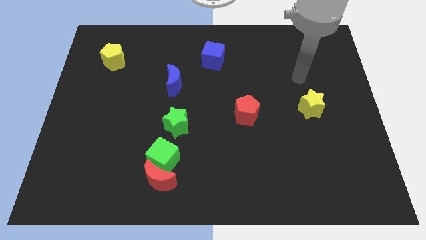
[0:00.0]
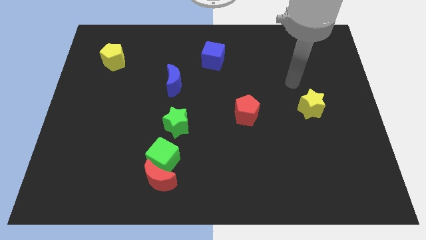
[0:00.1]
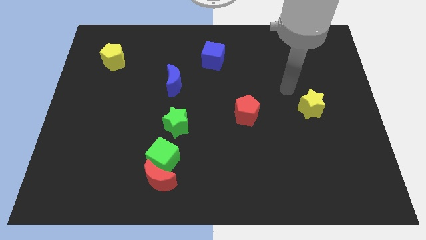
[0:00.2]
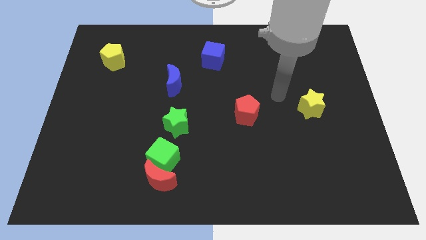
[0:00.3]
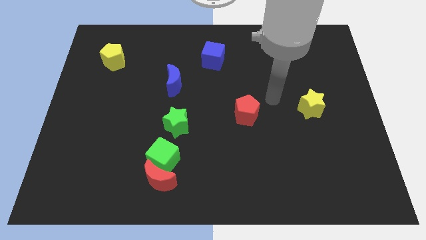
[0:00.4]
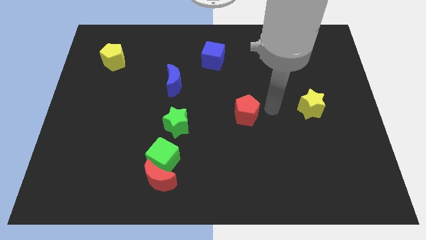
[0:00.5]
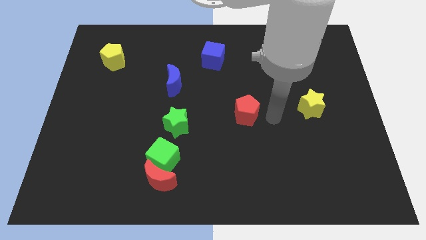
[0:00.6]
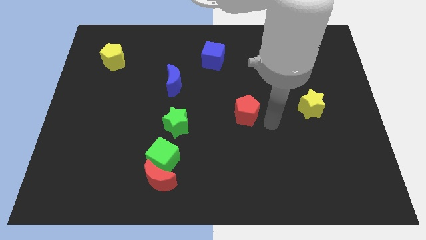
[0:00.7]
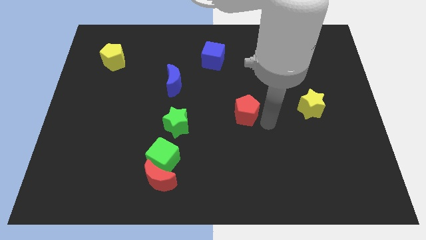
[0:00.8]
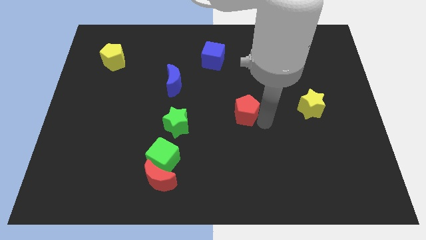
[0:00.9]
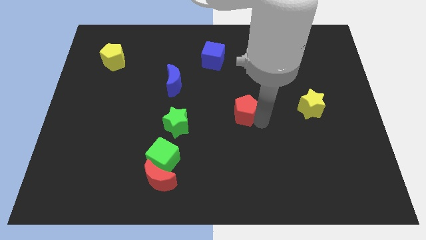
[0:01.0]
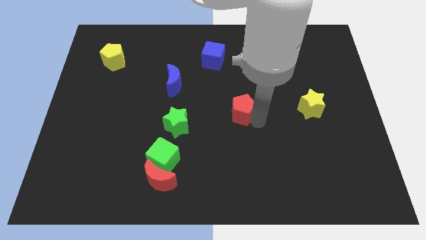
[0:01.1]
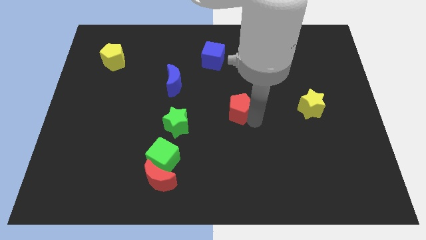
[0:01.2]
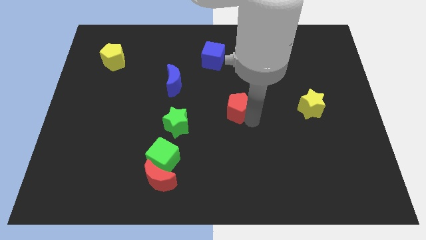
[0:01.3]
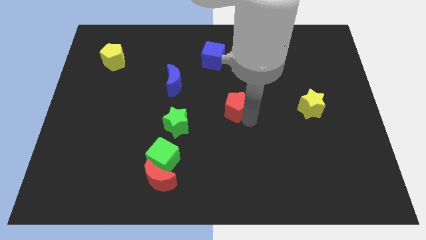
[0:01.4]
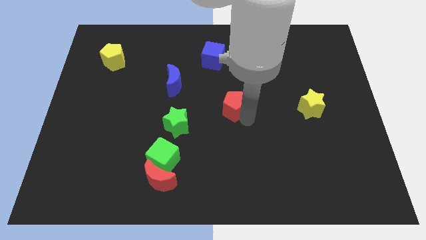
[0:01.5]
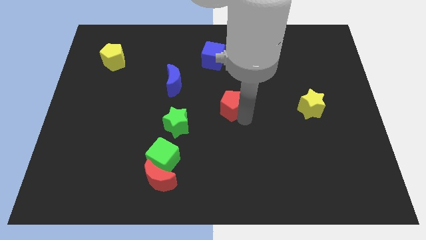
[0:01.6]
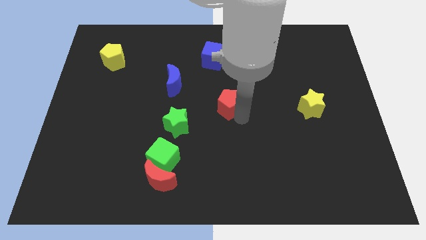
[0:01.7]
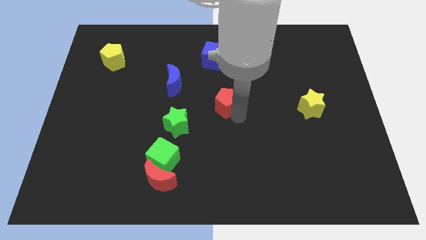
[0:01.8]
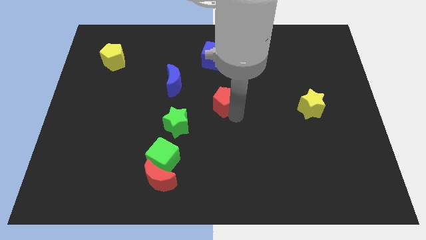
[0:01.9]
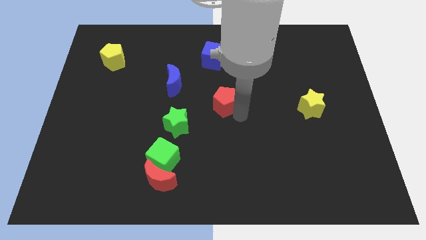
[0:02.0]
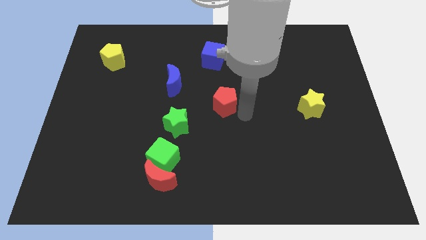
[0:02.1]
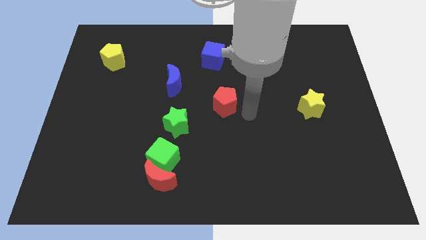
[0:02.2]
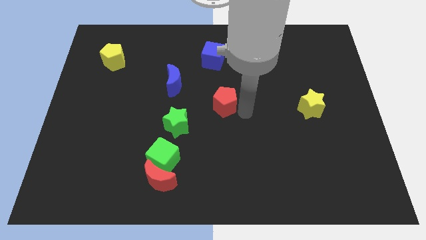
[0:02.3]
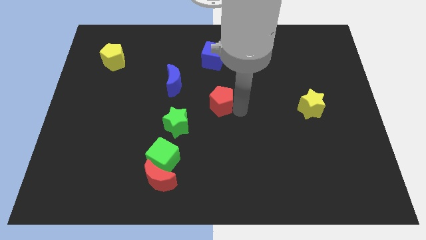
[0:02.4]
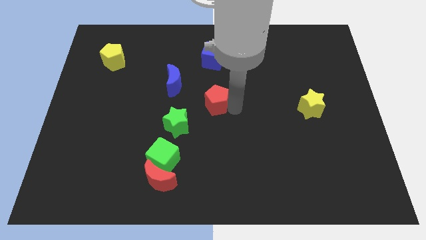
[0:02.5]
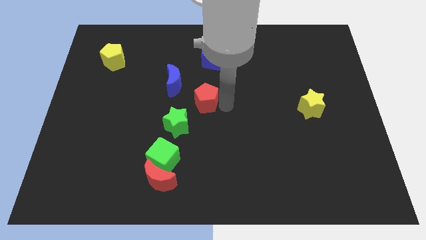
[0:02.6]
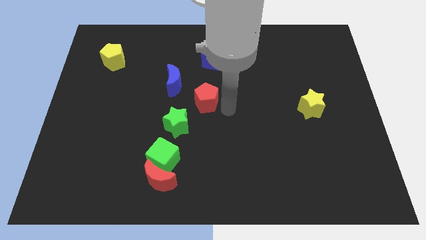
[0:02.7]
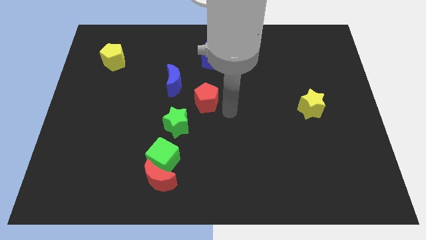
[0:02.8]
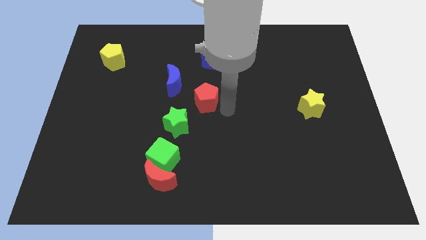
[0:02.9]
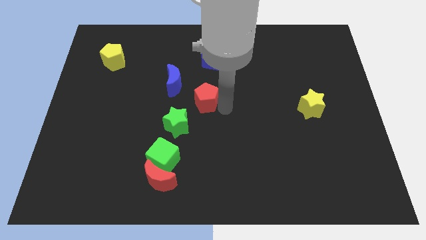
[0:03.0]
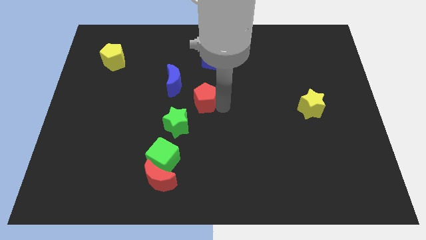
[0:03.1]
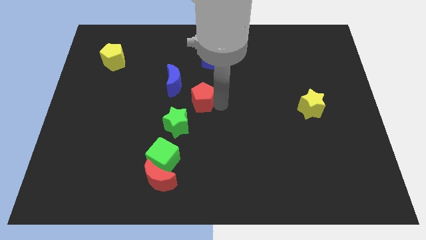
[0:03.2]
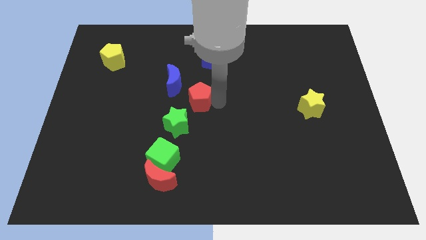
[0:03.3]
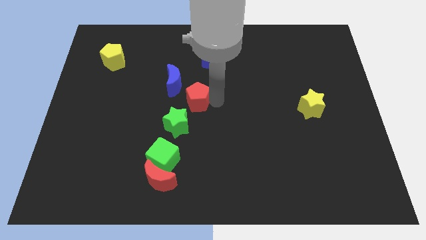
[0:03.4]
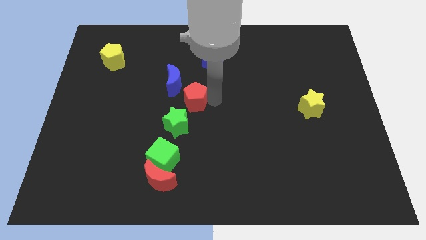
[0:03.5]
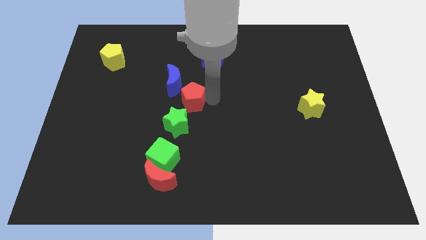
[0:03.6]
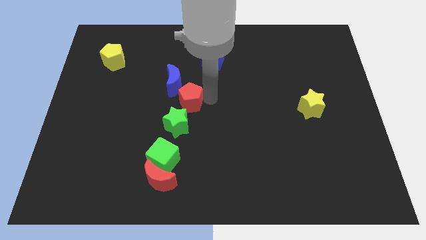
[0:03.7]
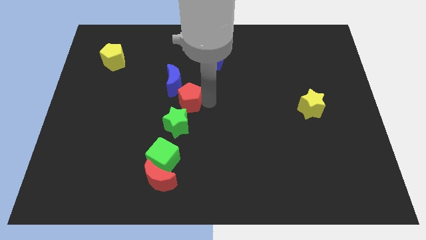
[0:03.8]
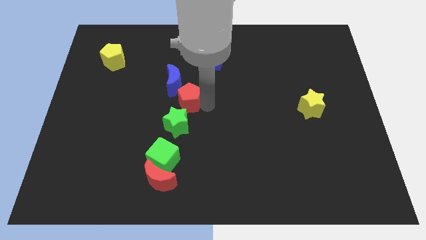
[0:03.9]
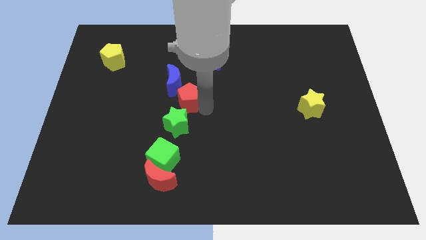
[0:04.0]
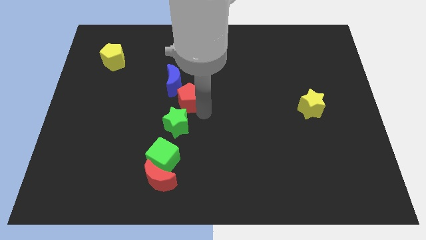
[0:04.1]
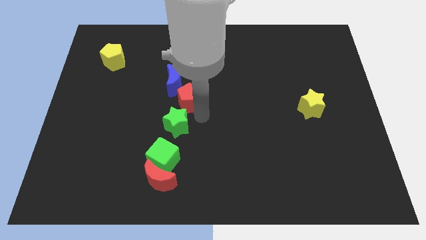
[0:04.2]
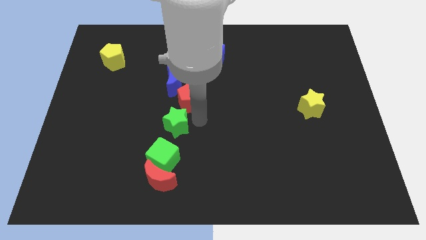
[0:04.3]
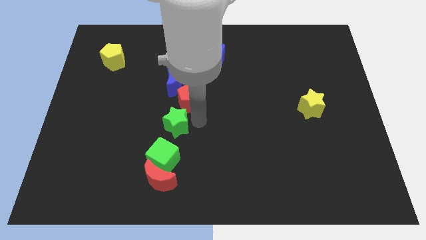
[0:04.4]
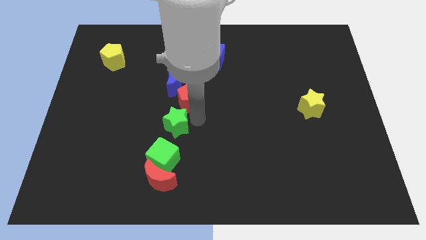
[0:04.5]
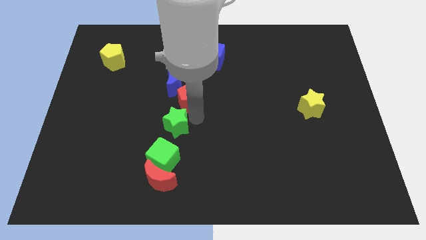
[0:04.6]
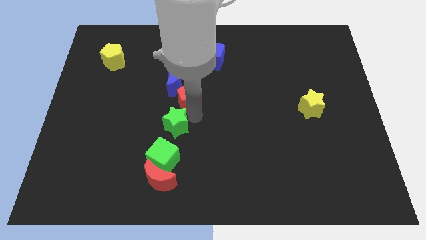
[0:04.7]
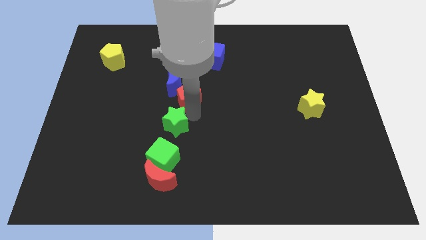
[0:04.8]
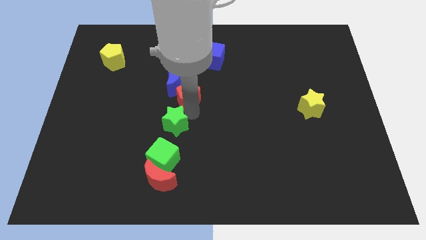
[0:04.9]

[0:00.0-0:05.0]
slide the red pentagon to the blue moon

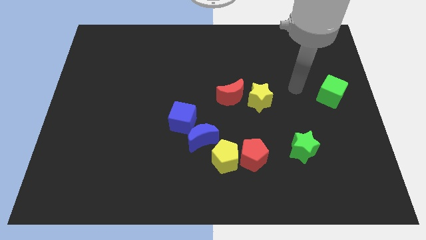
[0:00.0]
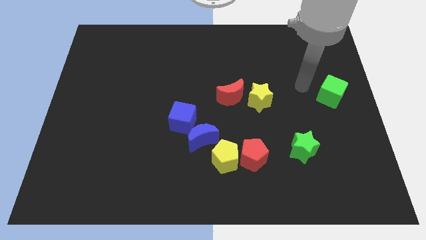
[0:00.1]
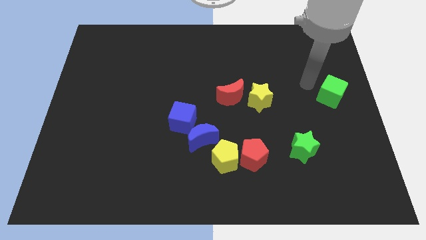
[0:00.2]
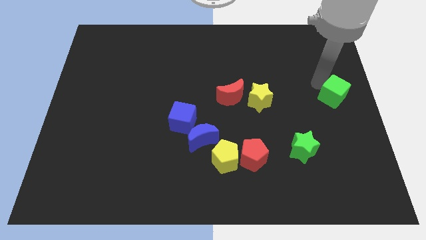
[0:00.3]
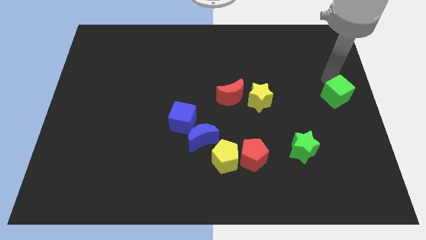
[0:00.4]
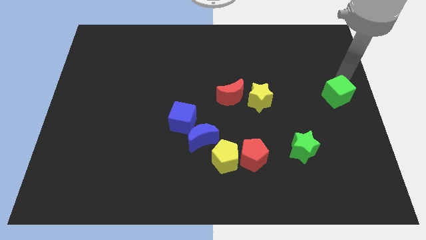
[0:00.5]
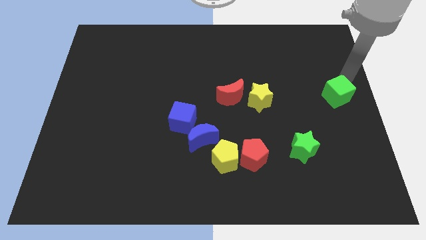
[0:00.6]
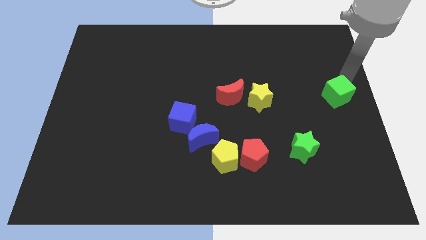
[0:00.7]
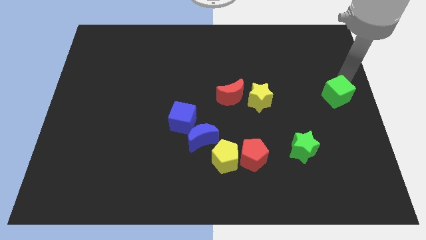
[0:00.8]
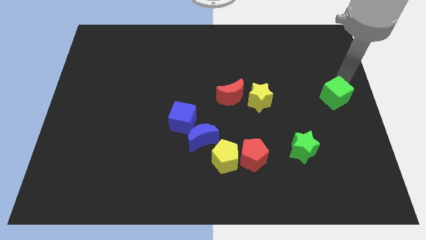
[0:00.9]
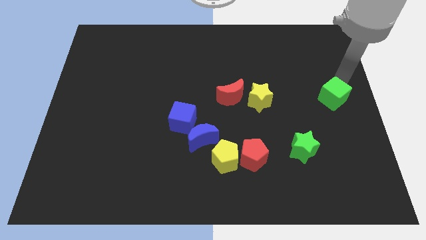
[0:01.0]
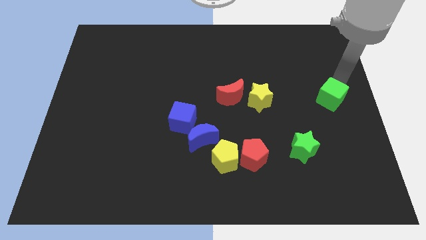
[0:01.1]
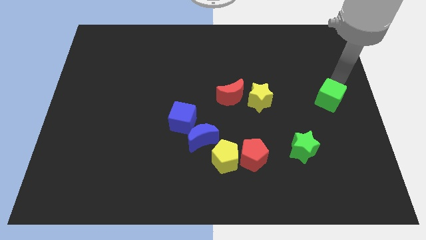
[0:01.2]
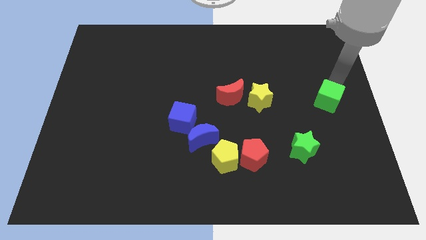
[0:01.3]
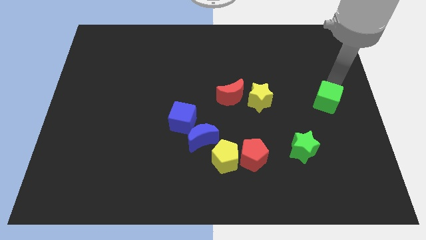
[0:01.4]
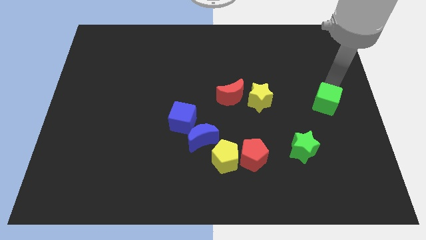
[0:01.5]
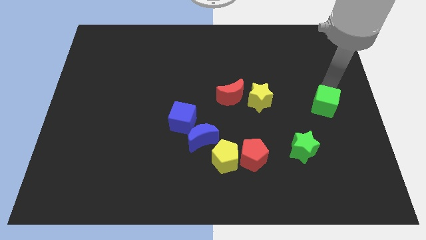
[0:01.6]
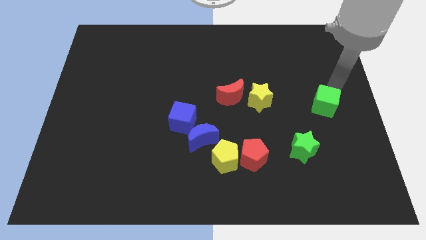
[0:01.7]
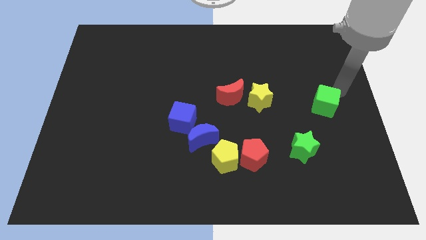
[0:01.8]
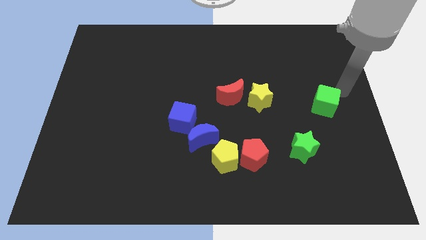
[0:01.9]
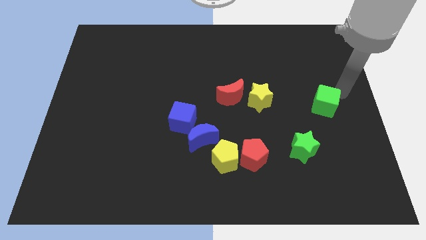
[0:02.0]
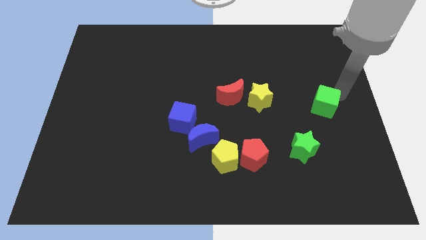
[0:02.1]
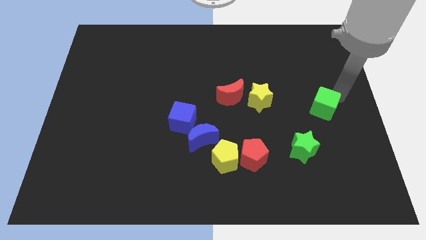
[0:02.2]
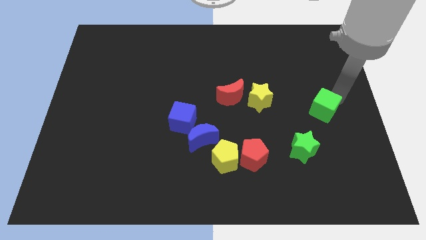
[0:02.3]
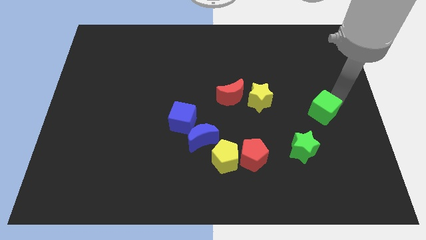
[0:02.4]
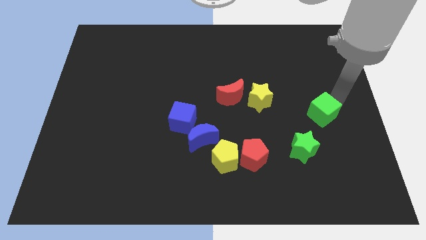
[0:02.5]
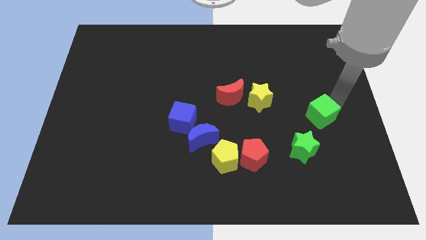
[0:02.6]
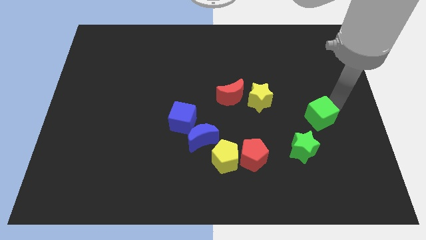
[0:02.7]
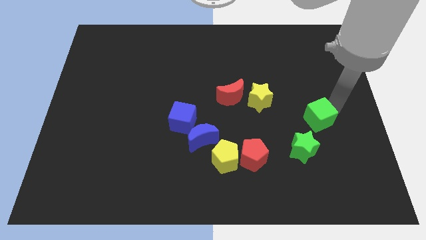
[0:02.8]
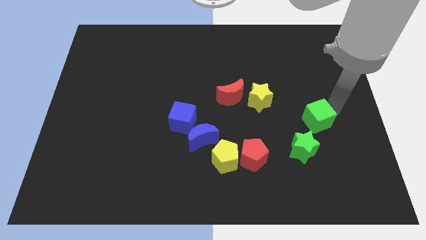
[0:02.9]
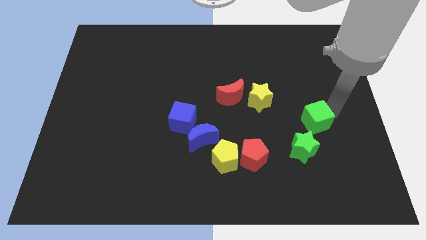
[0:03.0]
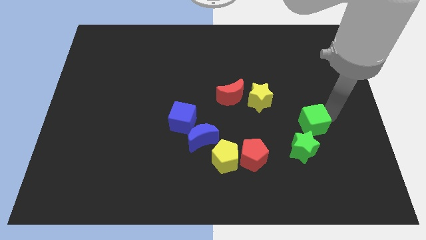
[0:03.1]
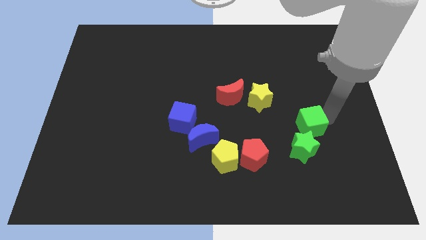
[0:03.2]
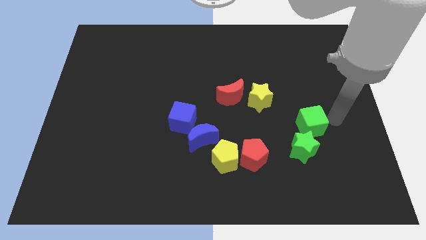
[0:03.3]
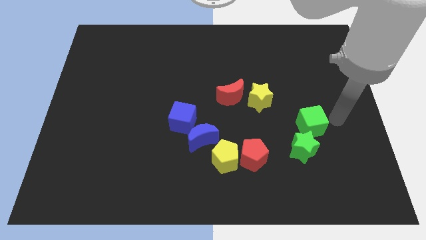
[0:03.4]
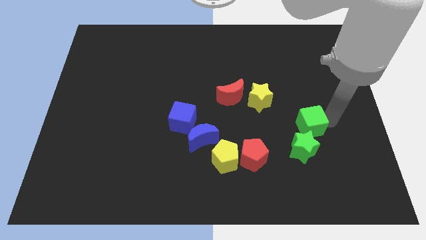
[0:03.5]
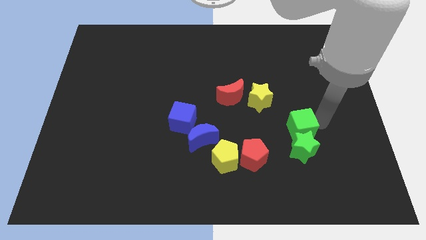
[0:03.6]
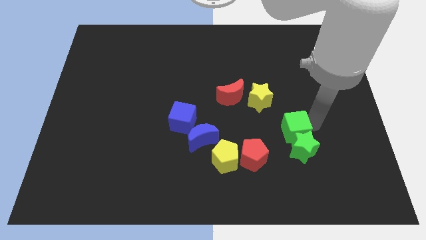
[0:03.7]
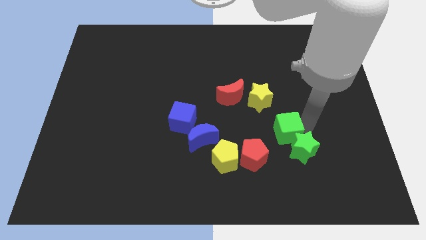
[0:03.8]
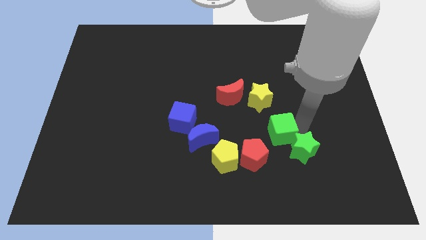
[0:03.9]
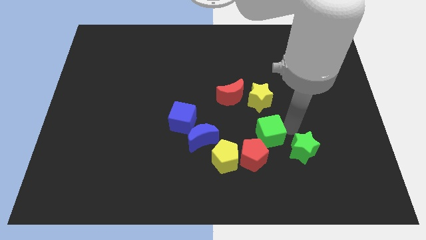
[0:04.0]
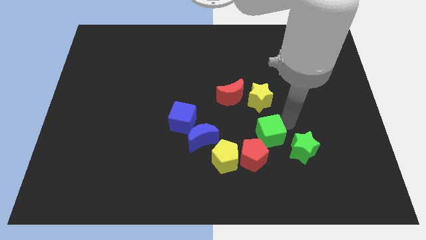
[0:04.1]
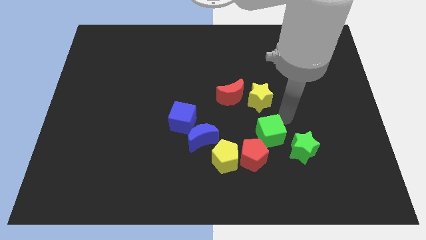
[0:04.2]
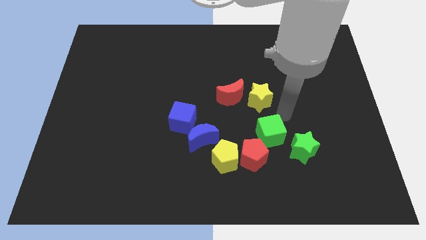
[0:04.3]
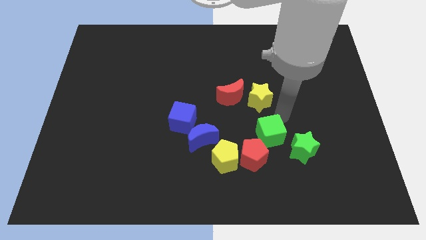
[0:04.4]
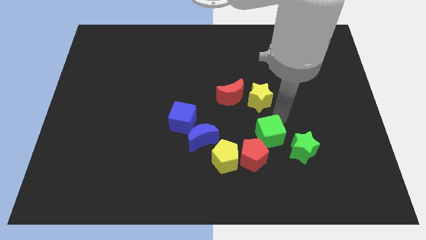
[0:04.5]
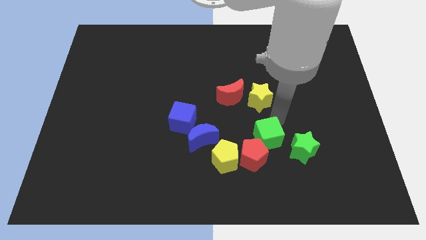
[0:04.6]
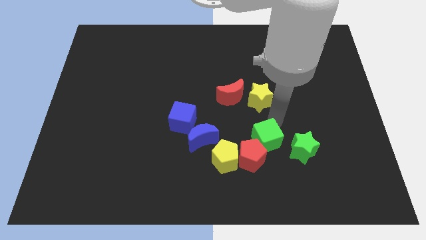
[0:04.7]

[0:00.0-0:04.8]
push the green cube next to the red pentagon
